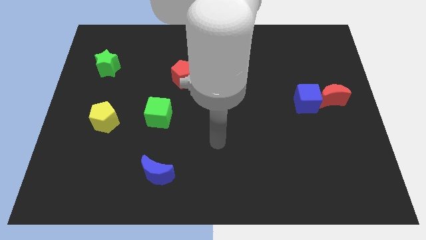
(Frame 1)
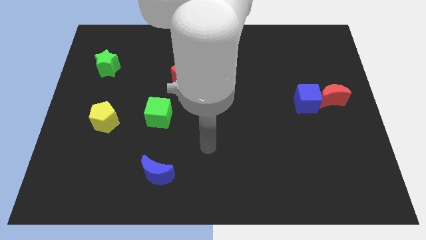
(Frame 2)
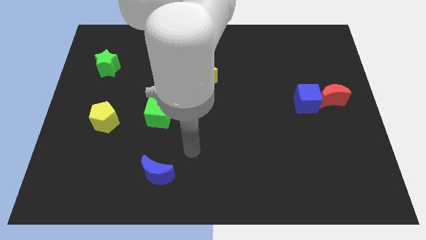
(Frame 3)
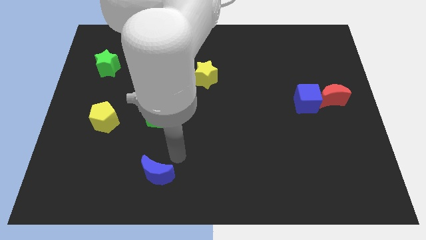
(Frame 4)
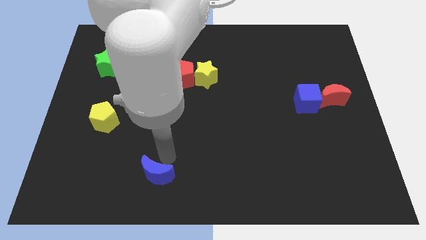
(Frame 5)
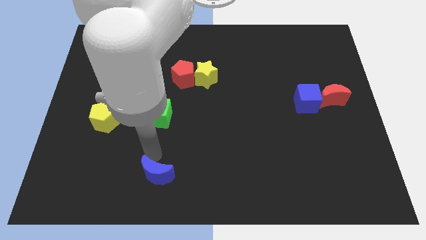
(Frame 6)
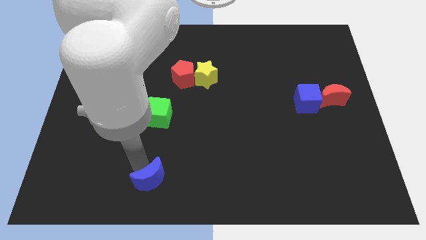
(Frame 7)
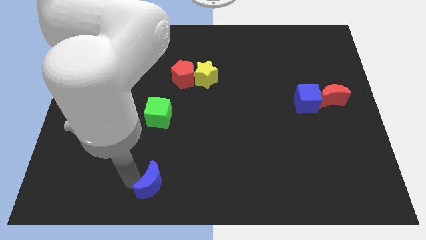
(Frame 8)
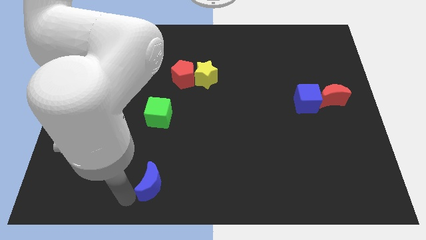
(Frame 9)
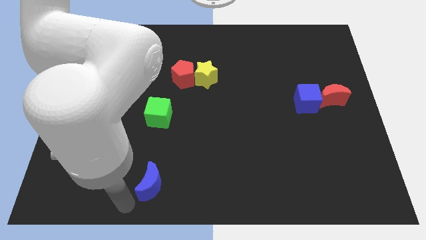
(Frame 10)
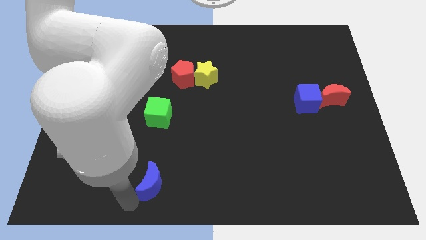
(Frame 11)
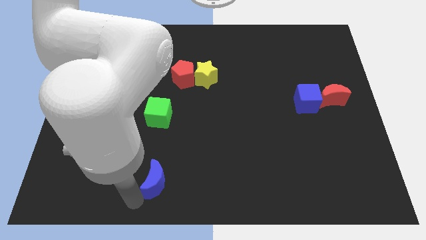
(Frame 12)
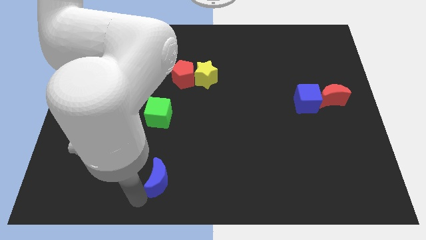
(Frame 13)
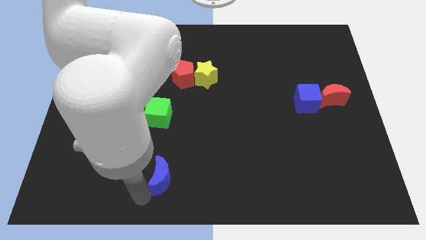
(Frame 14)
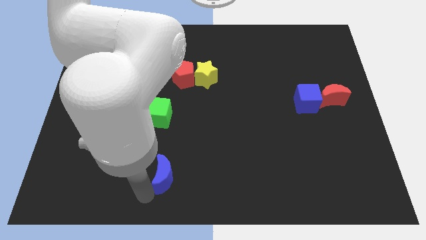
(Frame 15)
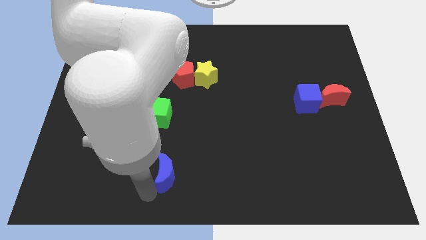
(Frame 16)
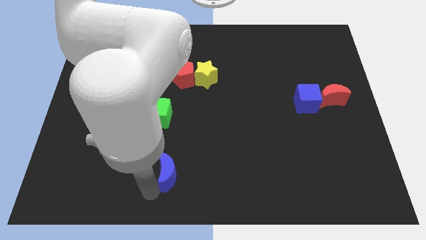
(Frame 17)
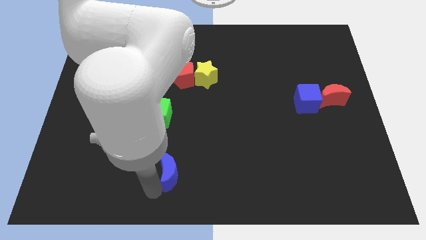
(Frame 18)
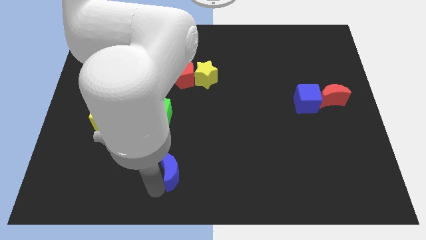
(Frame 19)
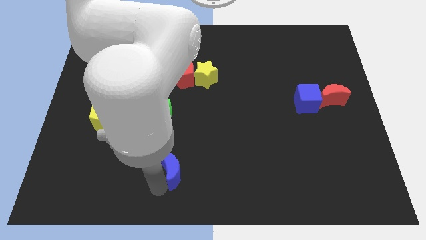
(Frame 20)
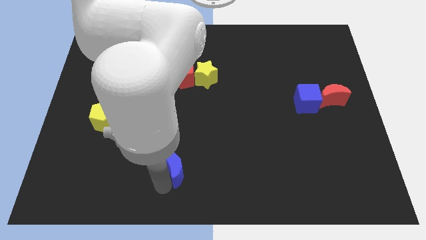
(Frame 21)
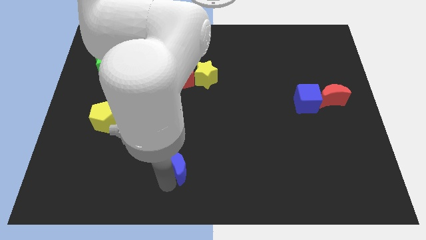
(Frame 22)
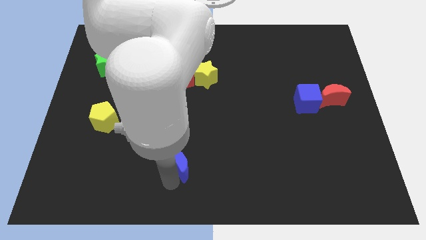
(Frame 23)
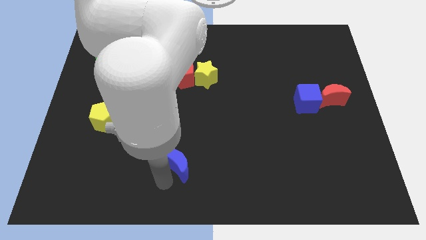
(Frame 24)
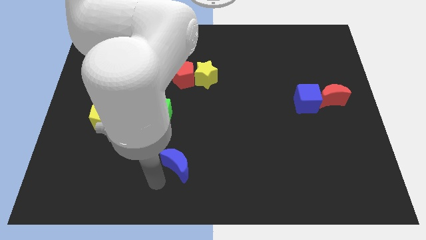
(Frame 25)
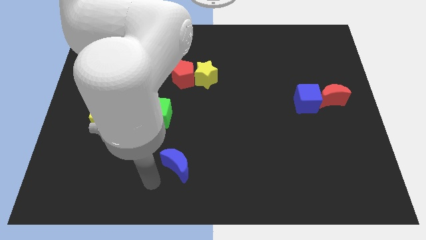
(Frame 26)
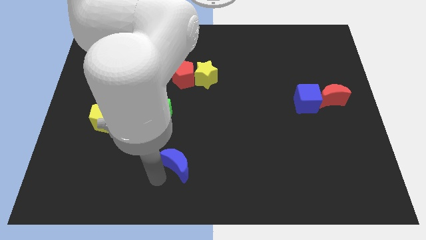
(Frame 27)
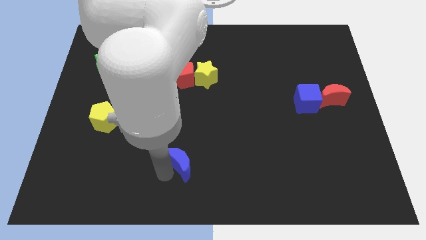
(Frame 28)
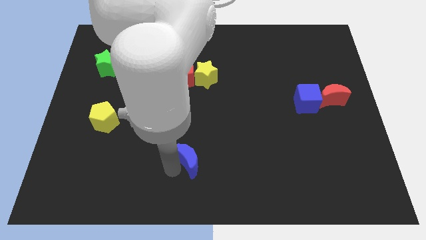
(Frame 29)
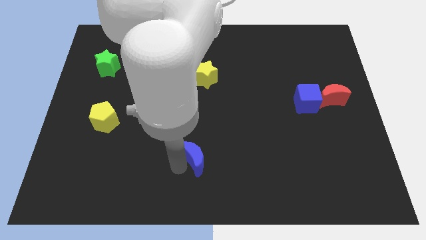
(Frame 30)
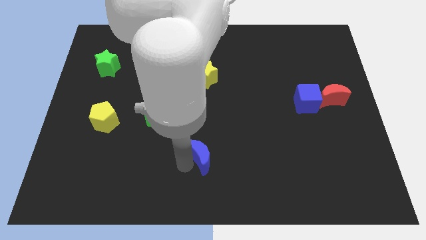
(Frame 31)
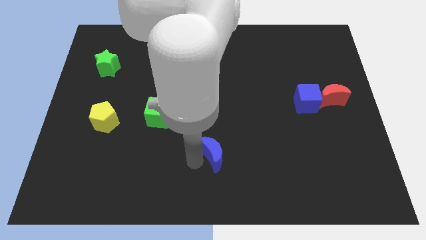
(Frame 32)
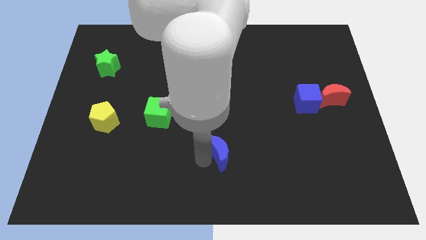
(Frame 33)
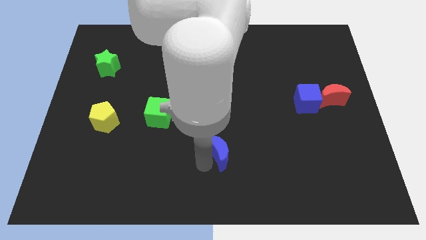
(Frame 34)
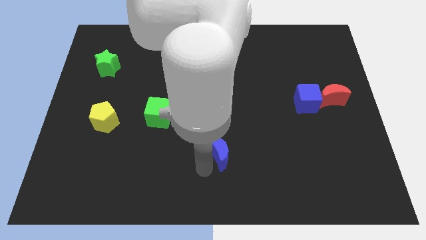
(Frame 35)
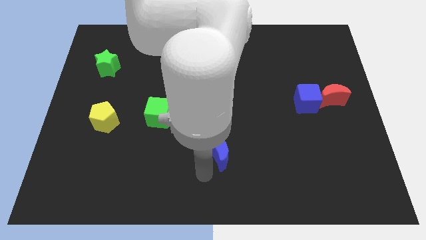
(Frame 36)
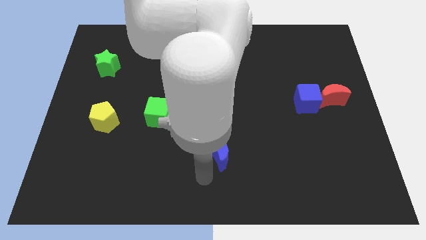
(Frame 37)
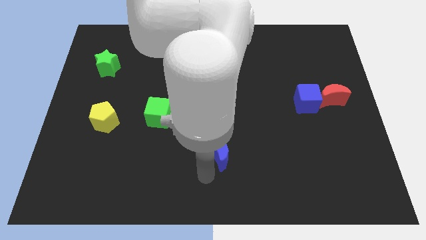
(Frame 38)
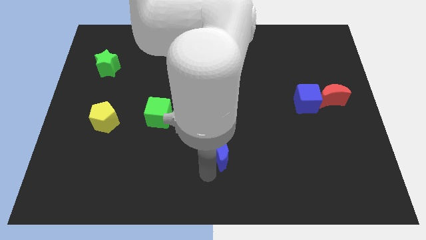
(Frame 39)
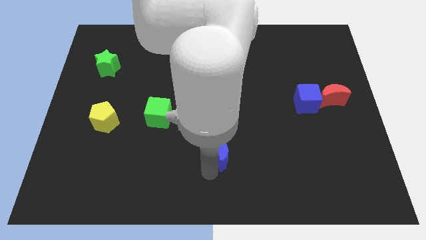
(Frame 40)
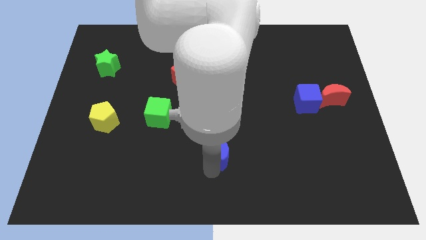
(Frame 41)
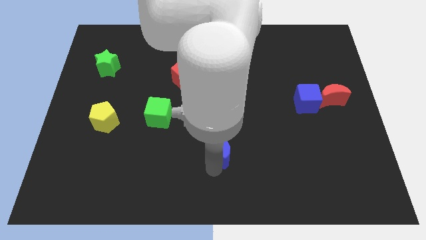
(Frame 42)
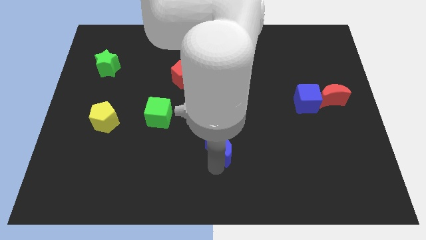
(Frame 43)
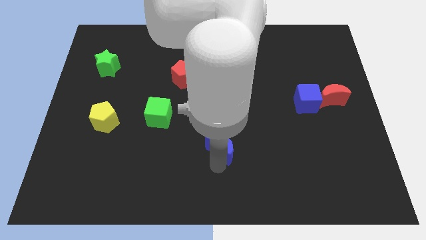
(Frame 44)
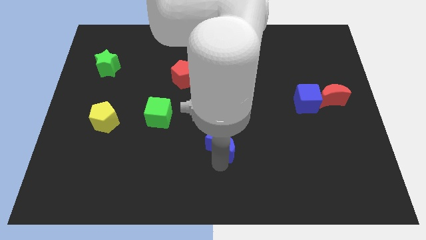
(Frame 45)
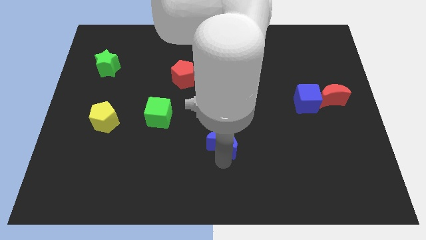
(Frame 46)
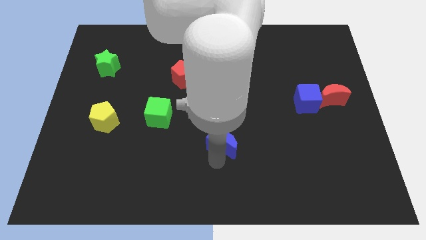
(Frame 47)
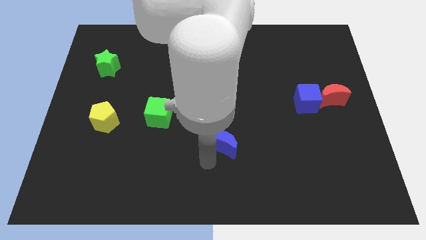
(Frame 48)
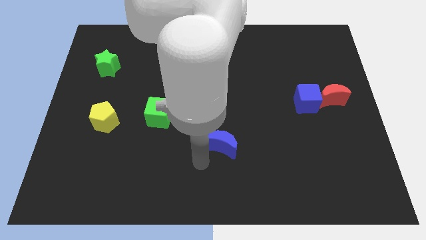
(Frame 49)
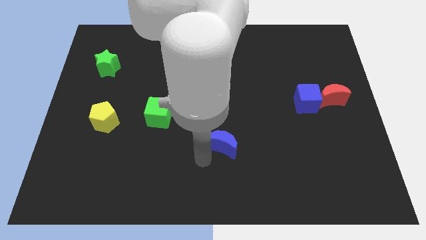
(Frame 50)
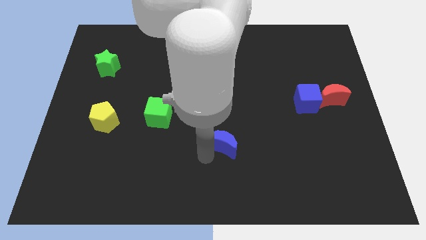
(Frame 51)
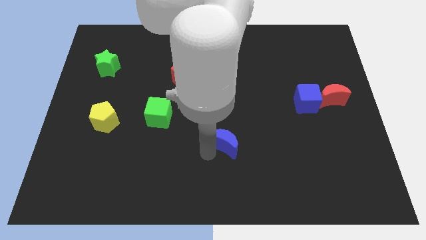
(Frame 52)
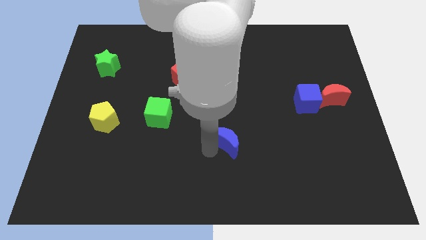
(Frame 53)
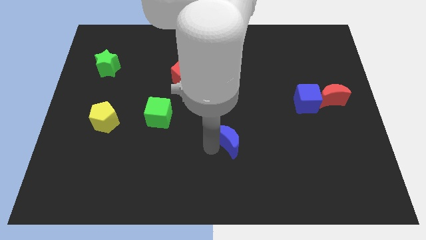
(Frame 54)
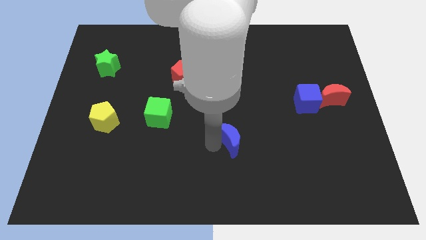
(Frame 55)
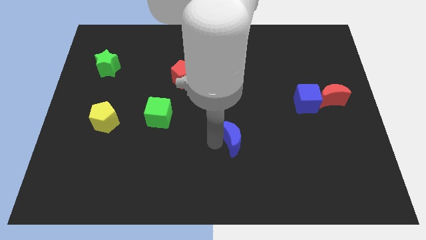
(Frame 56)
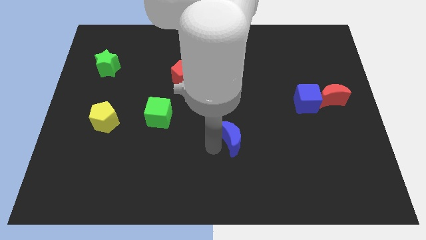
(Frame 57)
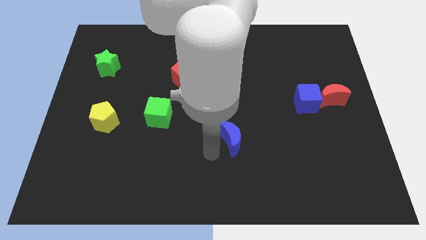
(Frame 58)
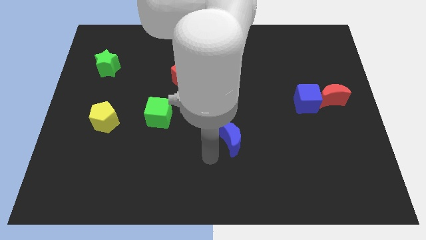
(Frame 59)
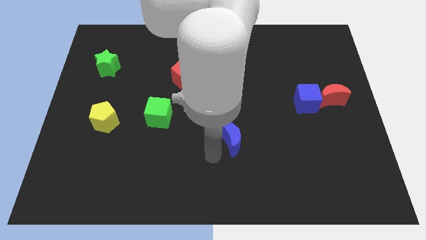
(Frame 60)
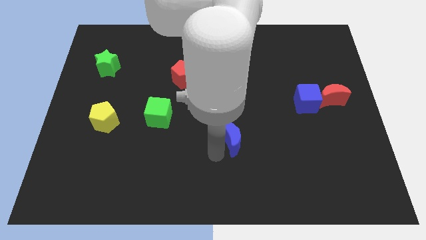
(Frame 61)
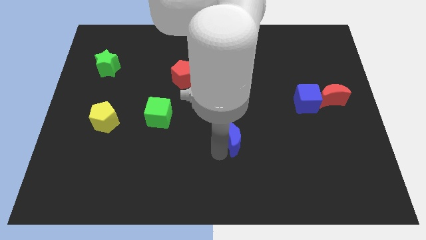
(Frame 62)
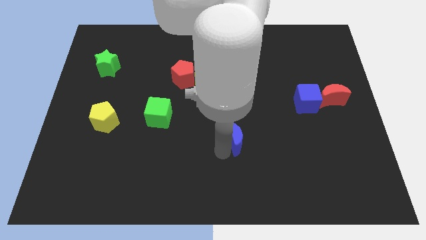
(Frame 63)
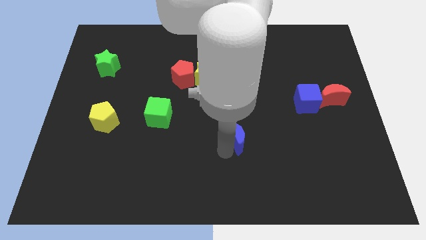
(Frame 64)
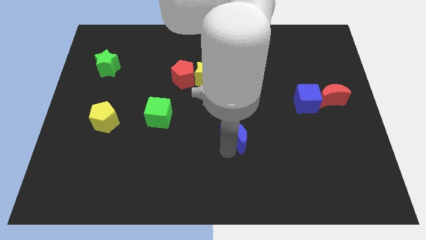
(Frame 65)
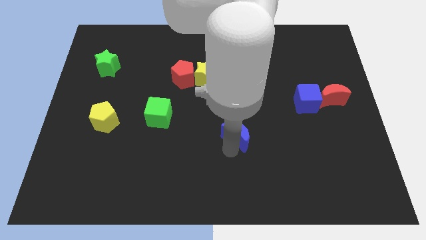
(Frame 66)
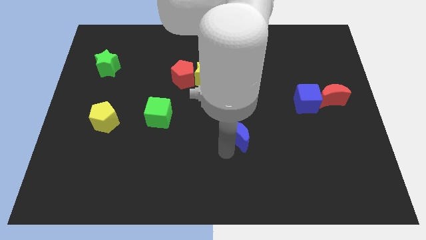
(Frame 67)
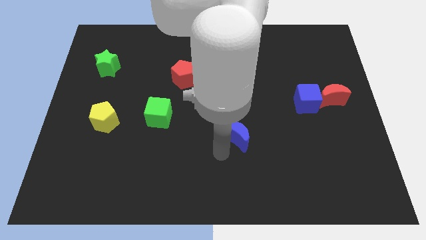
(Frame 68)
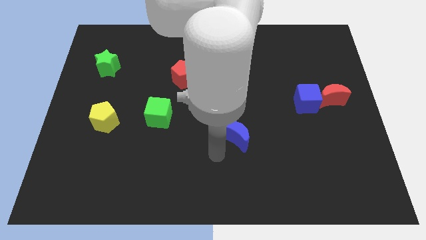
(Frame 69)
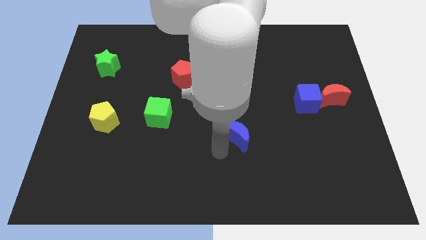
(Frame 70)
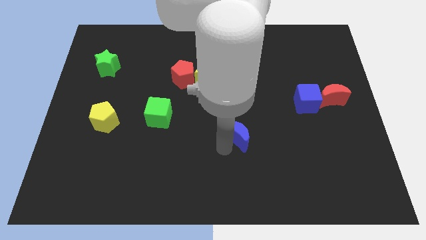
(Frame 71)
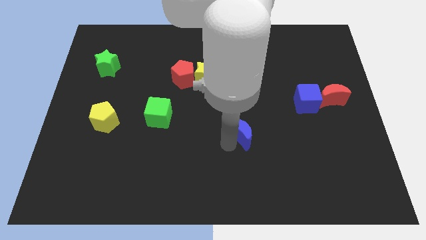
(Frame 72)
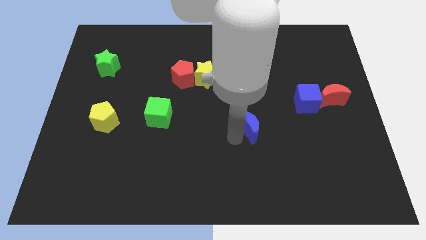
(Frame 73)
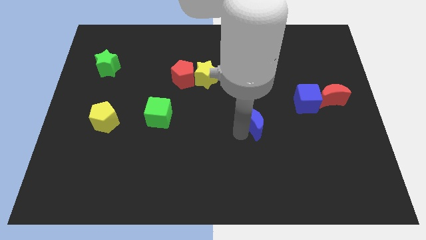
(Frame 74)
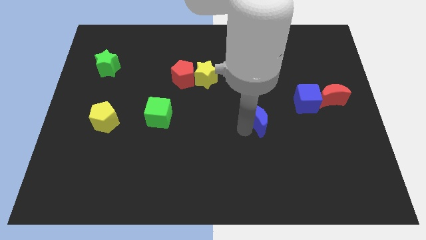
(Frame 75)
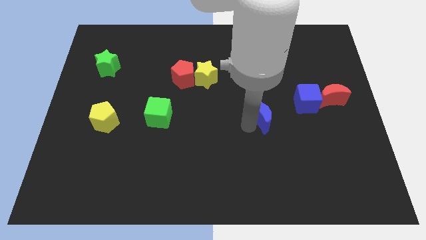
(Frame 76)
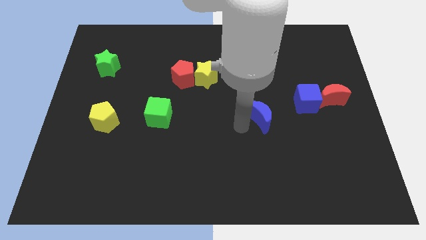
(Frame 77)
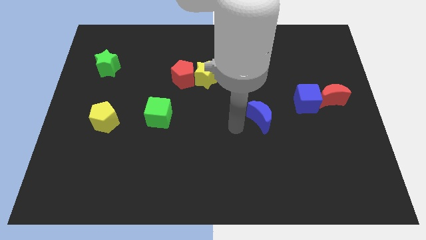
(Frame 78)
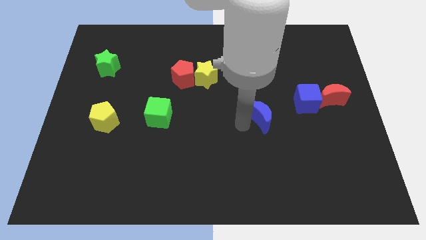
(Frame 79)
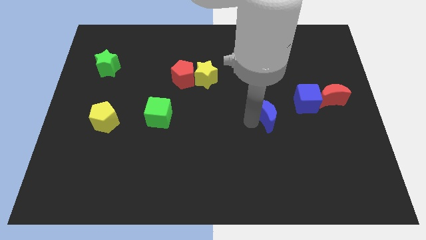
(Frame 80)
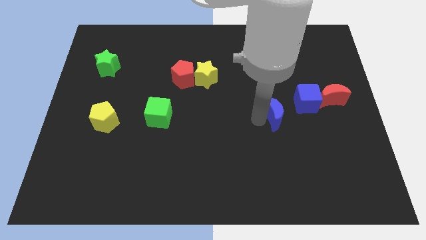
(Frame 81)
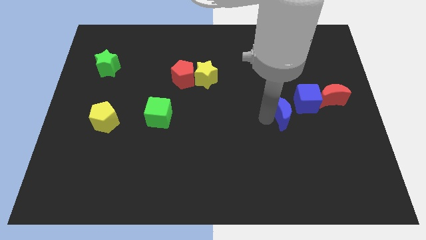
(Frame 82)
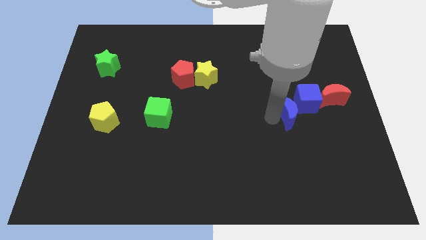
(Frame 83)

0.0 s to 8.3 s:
put the blue moon close to the blue cube
